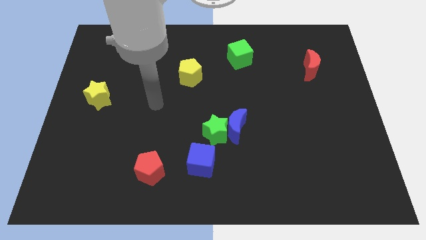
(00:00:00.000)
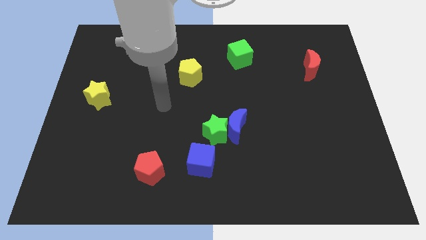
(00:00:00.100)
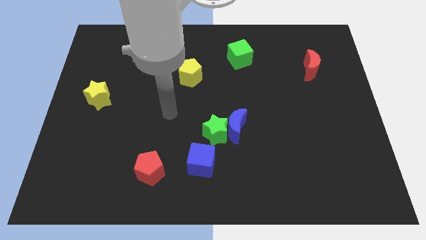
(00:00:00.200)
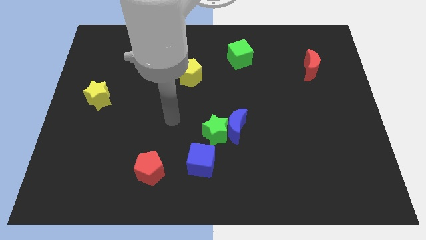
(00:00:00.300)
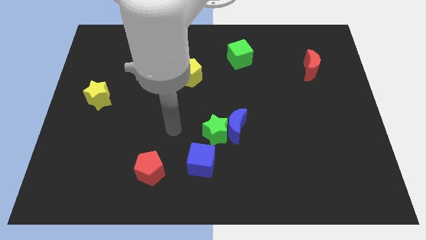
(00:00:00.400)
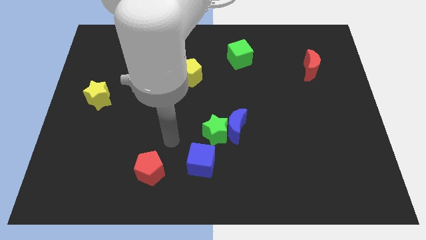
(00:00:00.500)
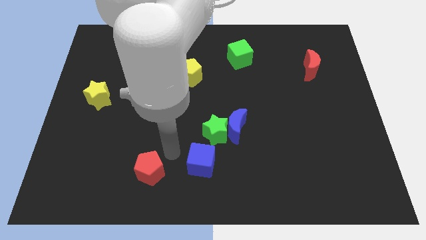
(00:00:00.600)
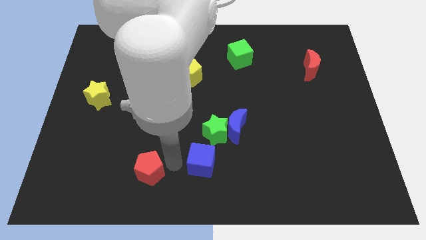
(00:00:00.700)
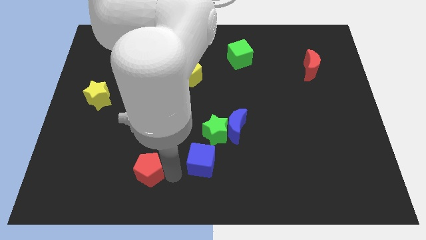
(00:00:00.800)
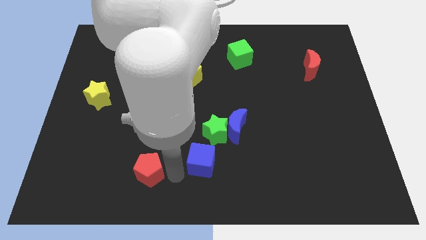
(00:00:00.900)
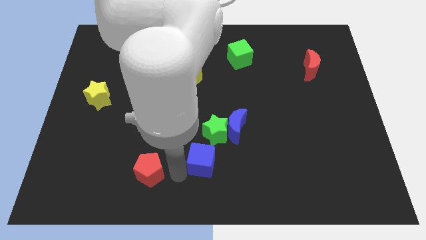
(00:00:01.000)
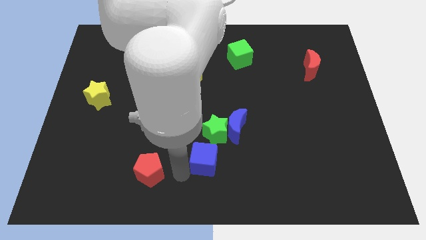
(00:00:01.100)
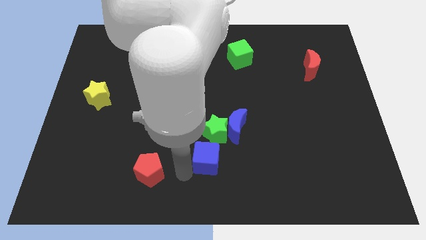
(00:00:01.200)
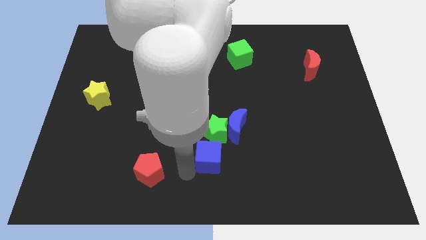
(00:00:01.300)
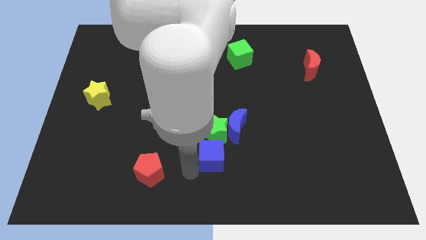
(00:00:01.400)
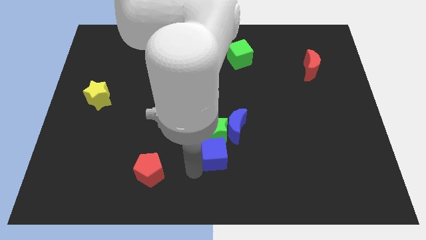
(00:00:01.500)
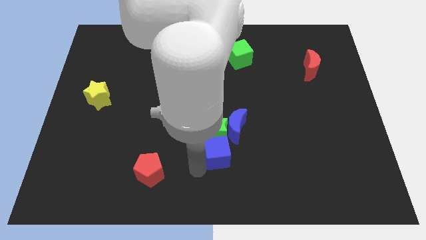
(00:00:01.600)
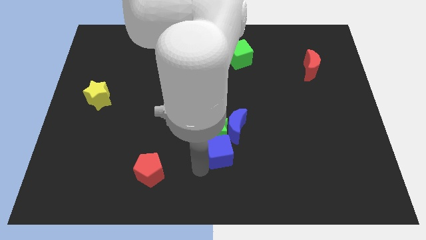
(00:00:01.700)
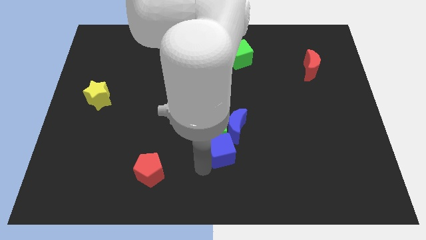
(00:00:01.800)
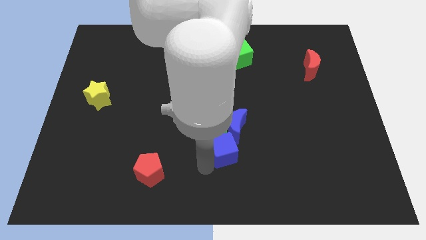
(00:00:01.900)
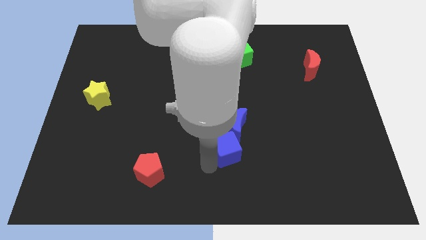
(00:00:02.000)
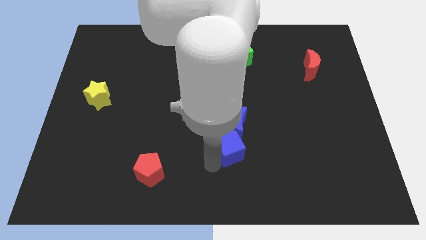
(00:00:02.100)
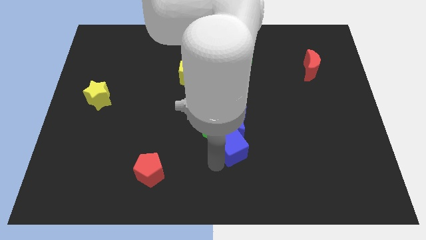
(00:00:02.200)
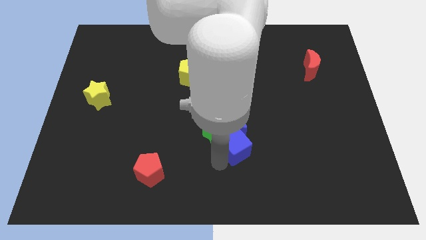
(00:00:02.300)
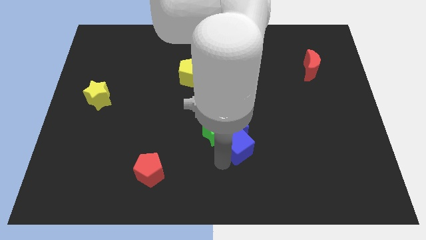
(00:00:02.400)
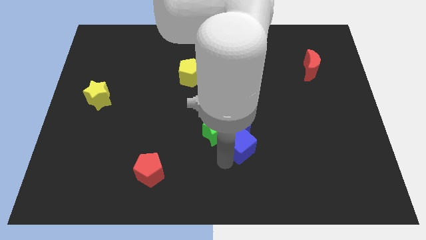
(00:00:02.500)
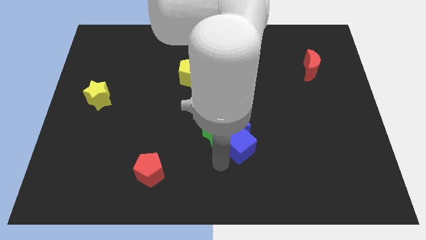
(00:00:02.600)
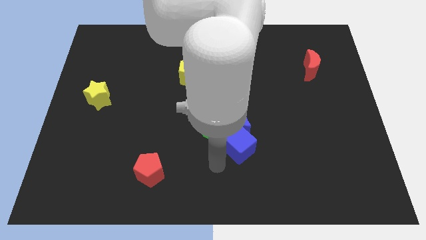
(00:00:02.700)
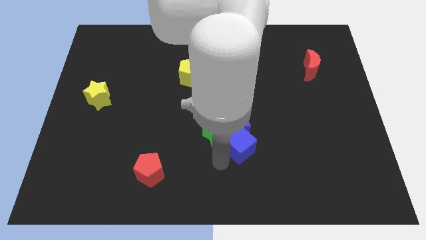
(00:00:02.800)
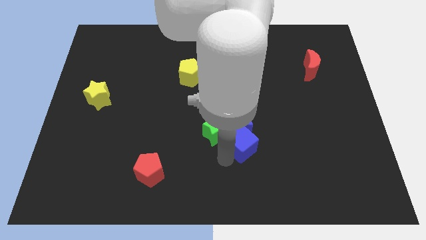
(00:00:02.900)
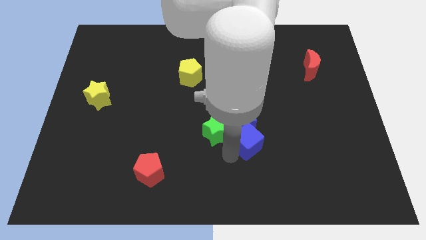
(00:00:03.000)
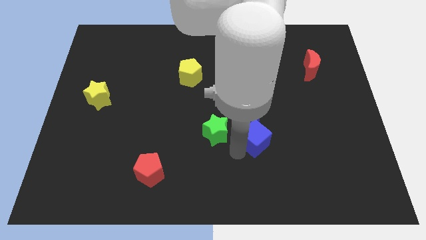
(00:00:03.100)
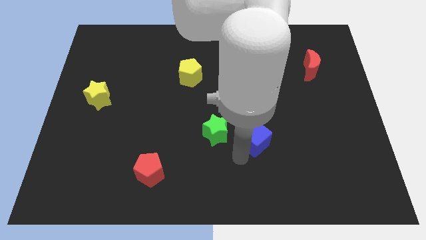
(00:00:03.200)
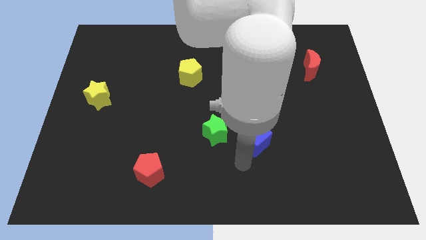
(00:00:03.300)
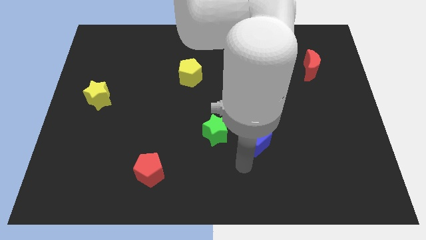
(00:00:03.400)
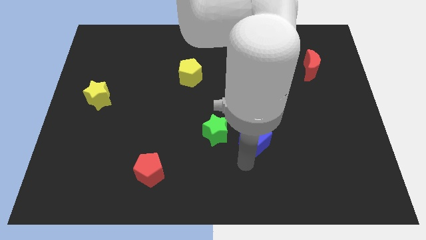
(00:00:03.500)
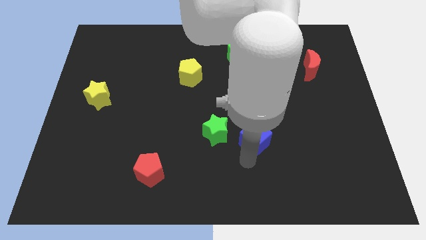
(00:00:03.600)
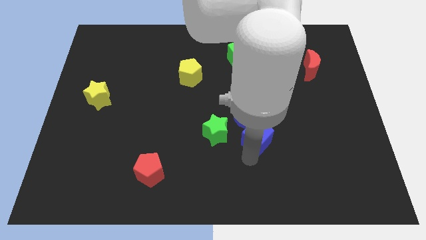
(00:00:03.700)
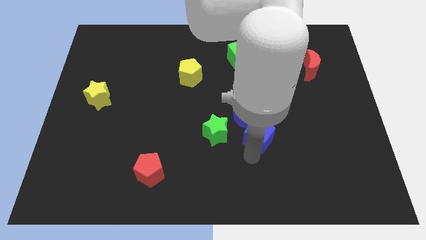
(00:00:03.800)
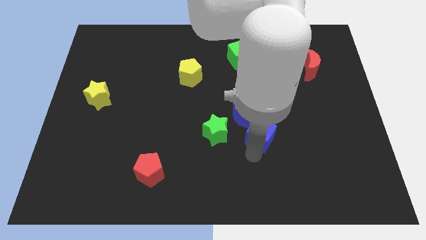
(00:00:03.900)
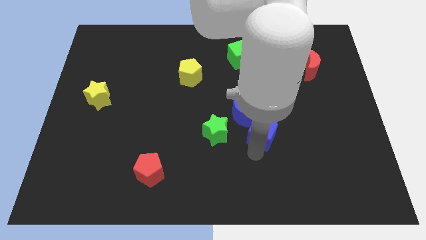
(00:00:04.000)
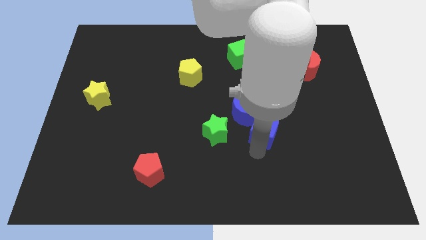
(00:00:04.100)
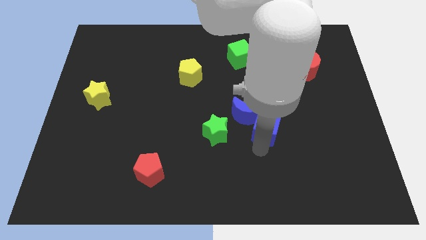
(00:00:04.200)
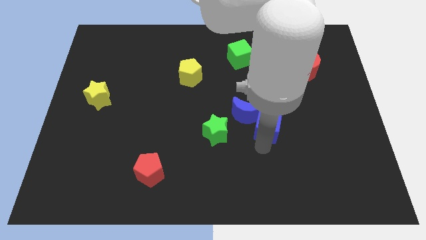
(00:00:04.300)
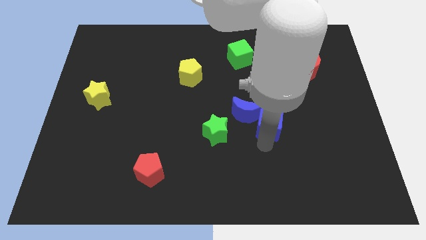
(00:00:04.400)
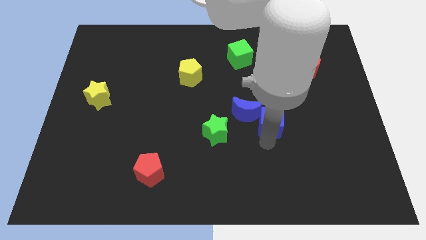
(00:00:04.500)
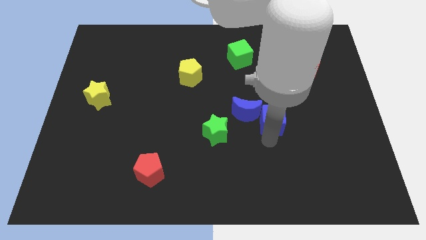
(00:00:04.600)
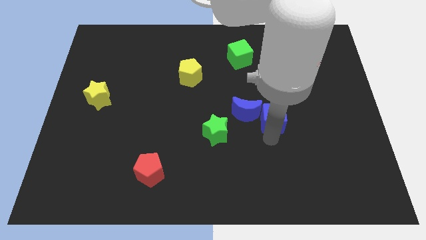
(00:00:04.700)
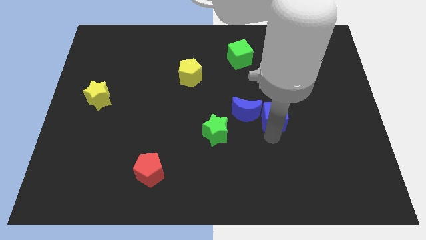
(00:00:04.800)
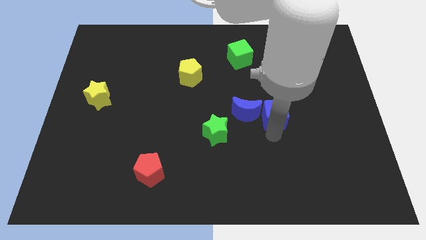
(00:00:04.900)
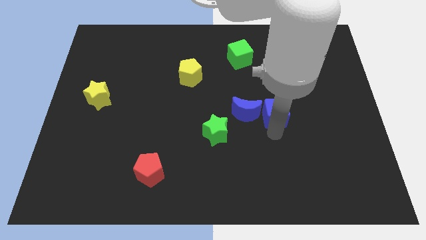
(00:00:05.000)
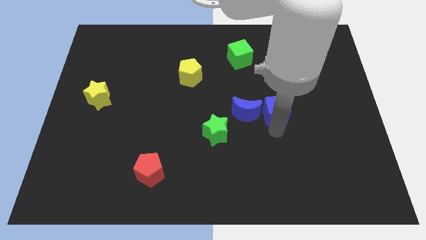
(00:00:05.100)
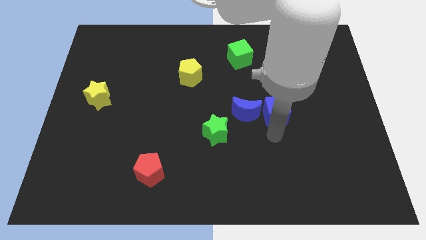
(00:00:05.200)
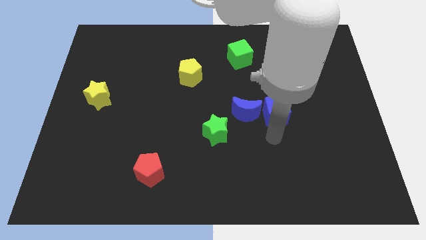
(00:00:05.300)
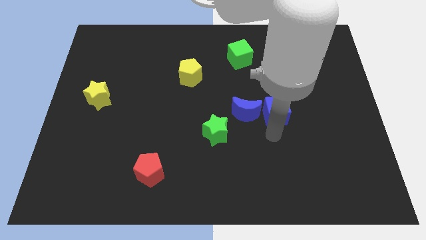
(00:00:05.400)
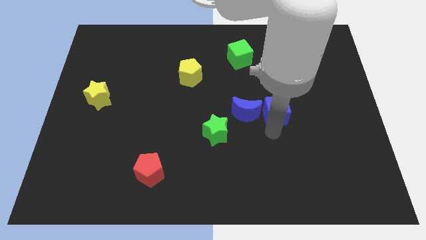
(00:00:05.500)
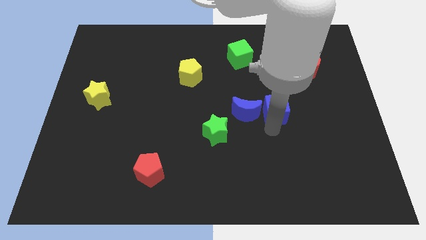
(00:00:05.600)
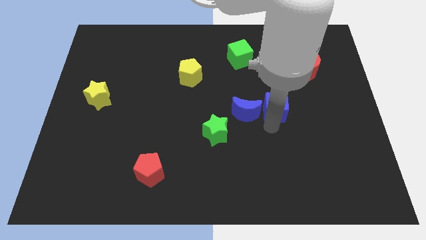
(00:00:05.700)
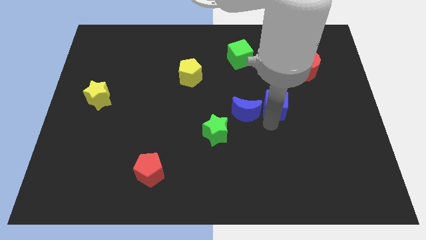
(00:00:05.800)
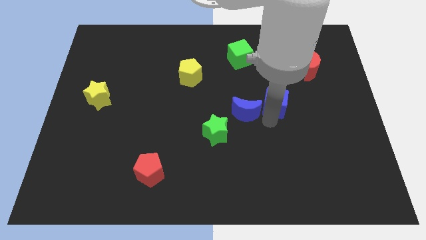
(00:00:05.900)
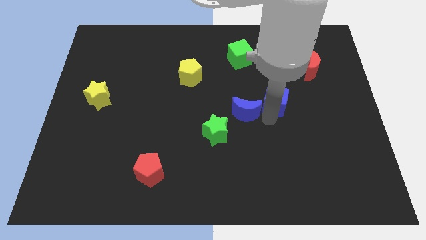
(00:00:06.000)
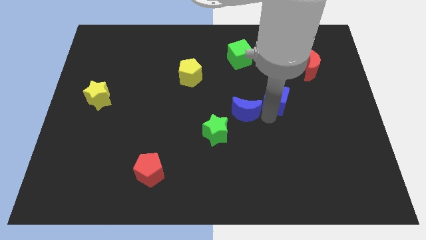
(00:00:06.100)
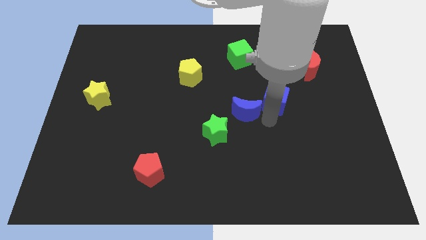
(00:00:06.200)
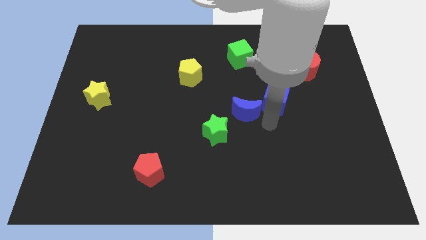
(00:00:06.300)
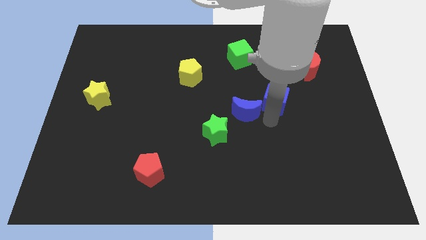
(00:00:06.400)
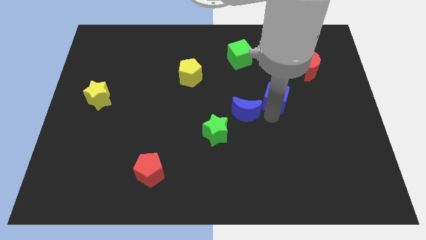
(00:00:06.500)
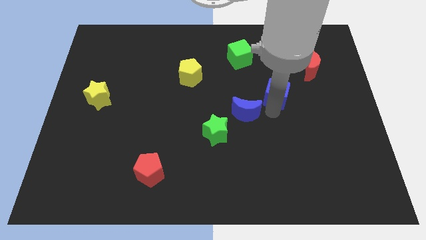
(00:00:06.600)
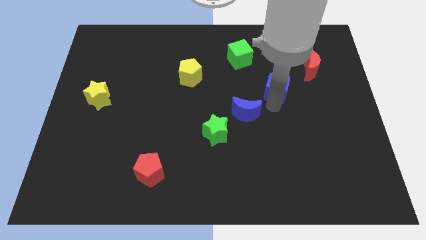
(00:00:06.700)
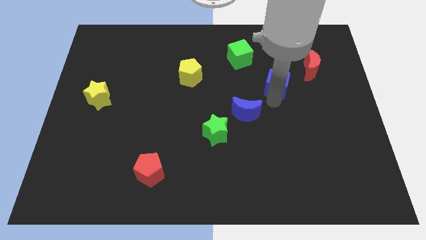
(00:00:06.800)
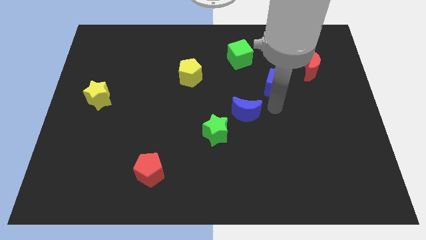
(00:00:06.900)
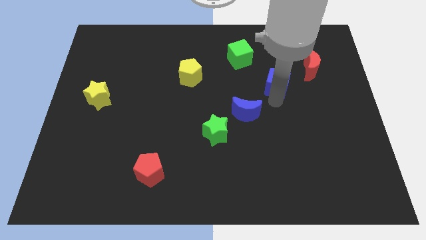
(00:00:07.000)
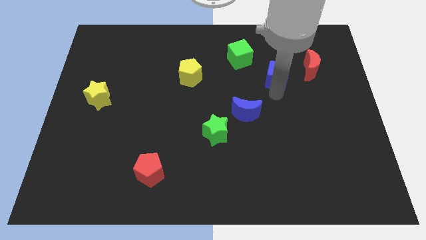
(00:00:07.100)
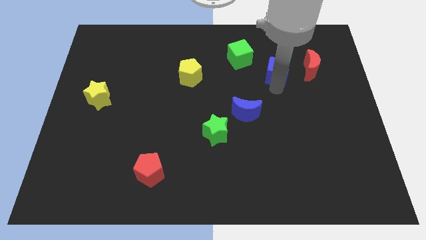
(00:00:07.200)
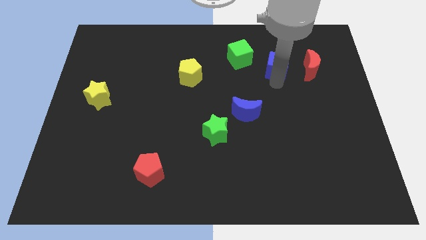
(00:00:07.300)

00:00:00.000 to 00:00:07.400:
push the blue cube to the right of the green cube

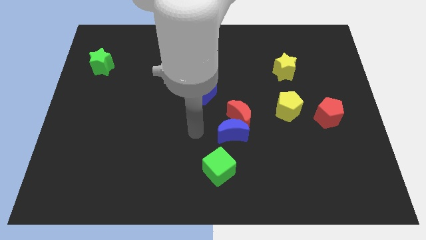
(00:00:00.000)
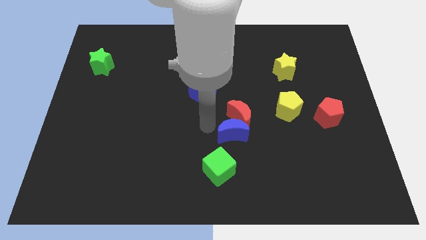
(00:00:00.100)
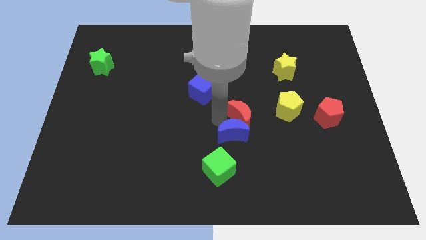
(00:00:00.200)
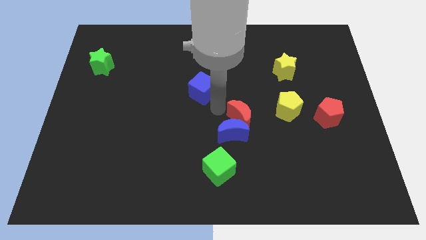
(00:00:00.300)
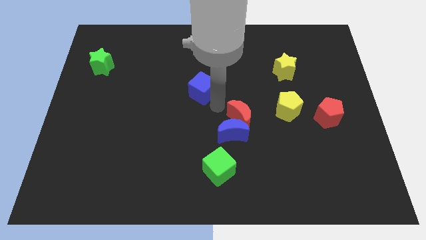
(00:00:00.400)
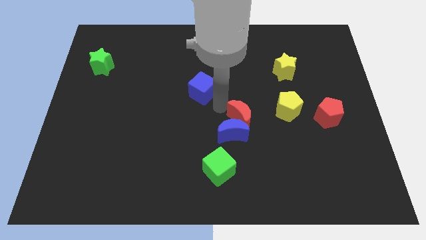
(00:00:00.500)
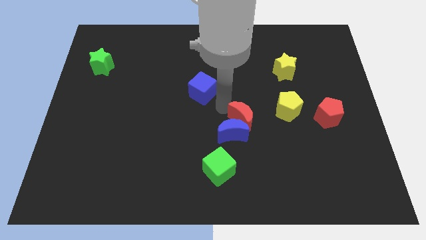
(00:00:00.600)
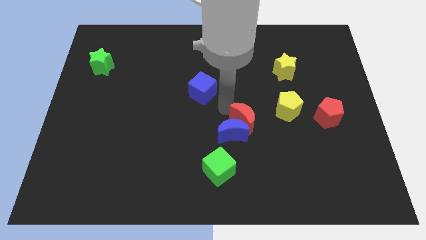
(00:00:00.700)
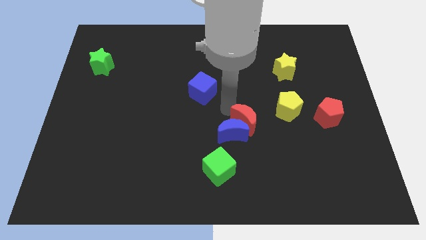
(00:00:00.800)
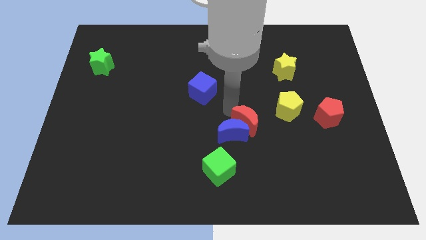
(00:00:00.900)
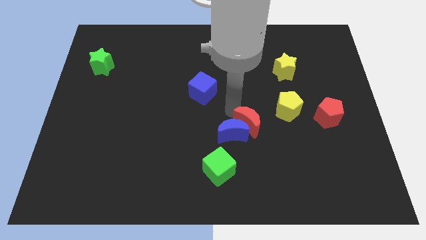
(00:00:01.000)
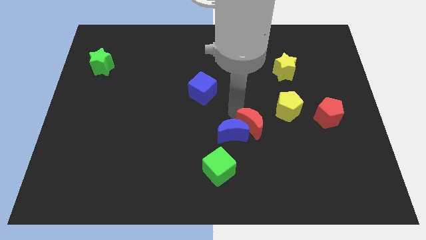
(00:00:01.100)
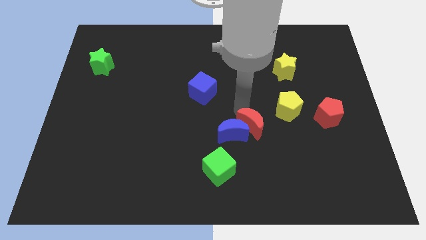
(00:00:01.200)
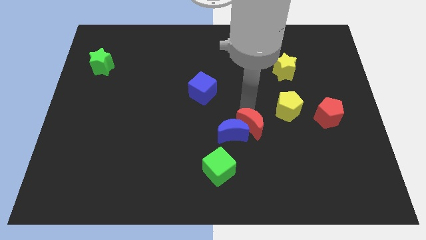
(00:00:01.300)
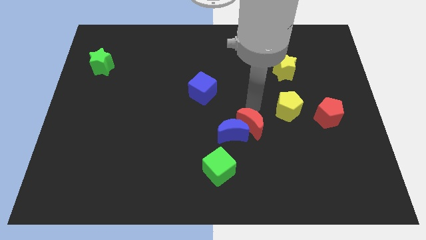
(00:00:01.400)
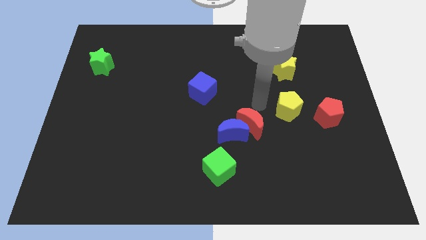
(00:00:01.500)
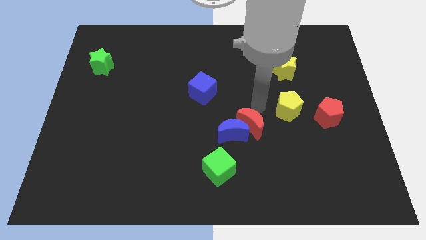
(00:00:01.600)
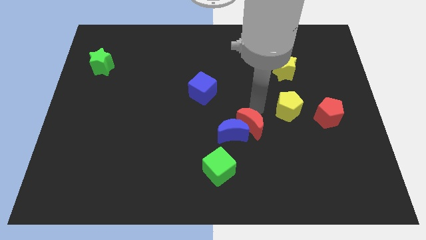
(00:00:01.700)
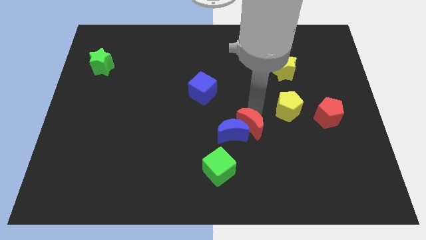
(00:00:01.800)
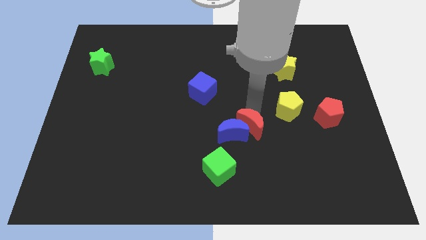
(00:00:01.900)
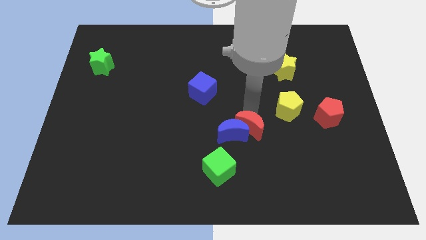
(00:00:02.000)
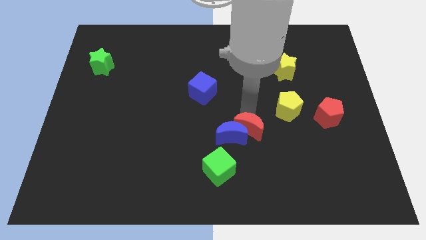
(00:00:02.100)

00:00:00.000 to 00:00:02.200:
put the red moon to the top right side of the green cube
